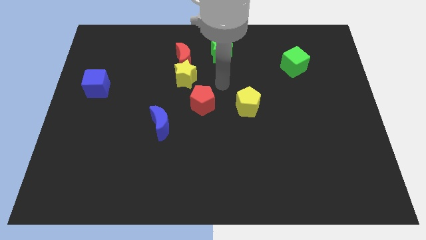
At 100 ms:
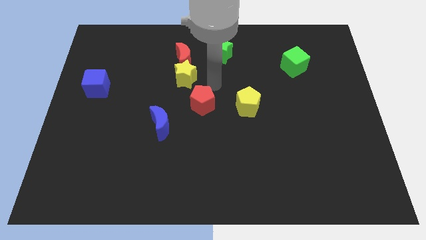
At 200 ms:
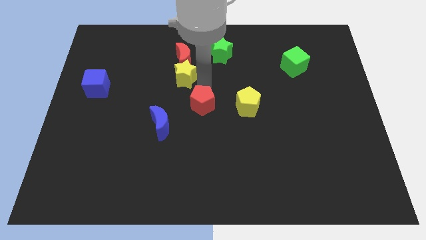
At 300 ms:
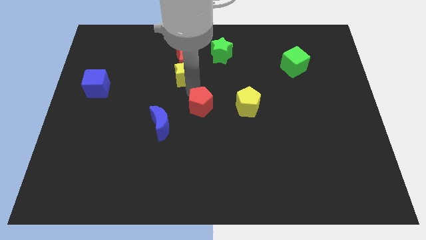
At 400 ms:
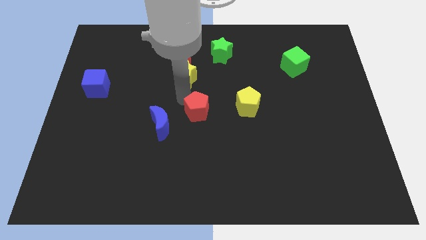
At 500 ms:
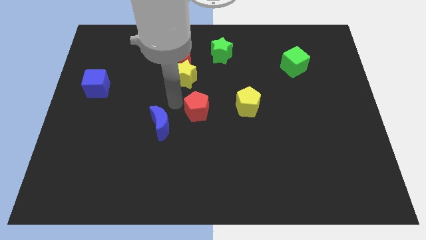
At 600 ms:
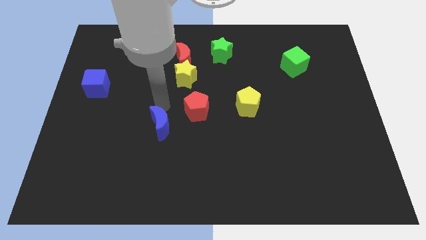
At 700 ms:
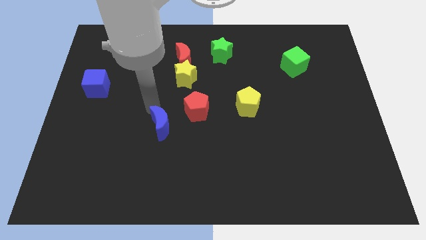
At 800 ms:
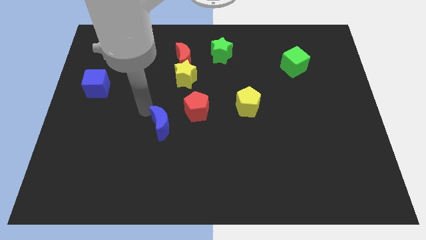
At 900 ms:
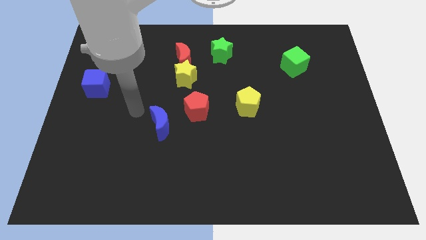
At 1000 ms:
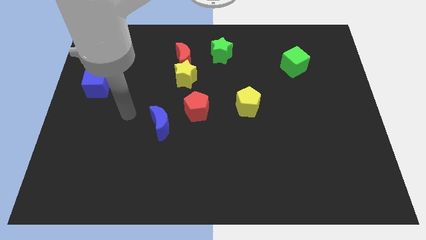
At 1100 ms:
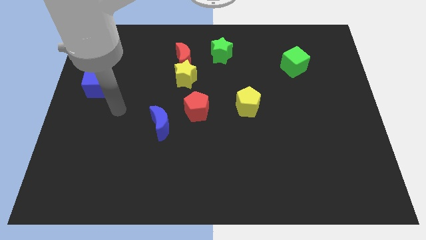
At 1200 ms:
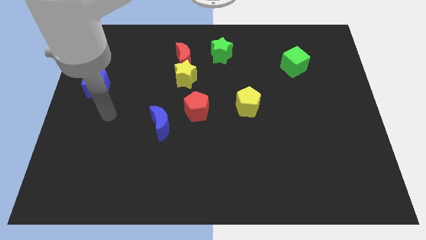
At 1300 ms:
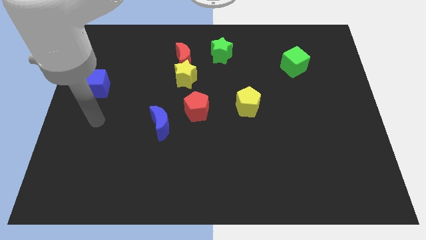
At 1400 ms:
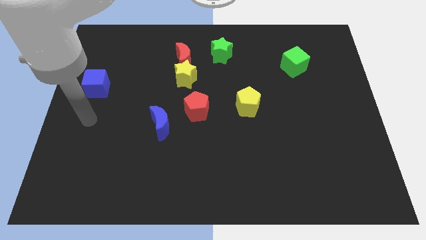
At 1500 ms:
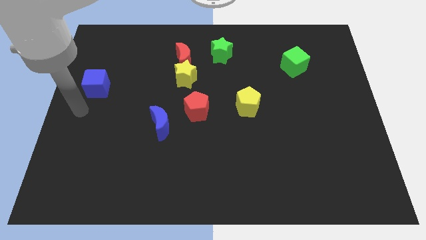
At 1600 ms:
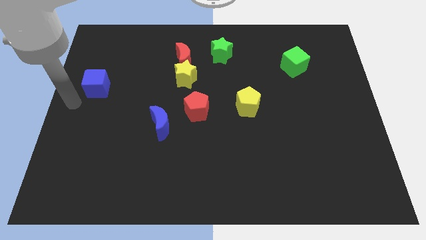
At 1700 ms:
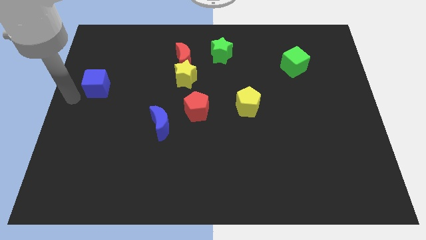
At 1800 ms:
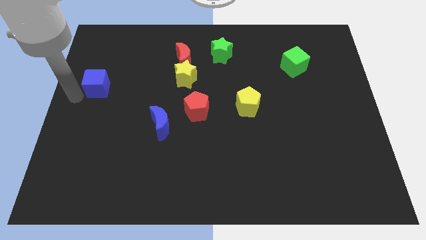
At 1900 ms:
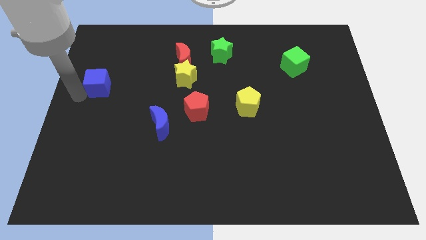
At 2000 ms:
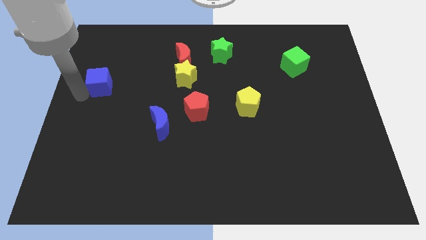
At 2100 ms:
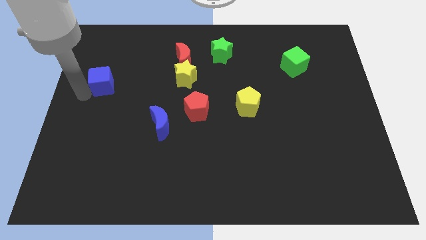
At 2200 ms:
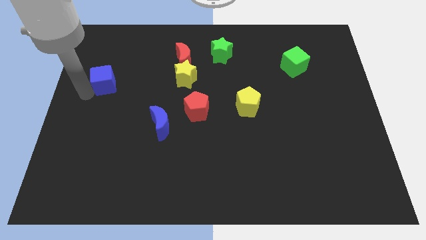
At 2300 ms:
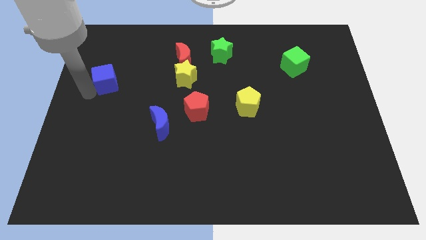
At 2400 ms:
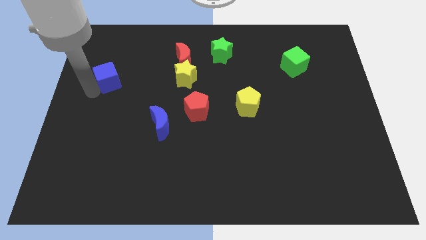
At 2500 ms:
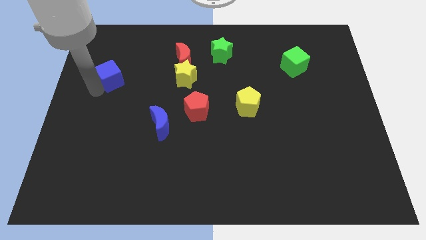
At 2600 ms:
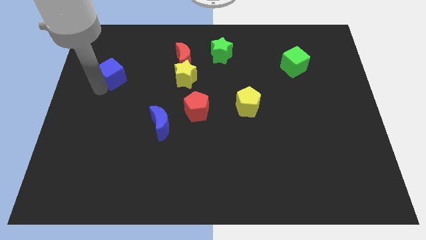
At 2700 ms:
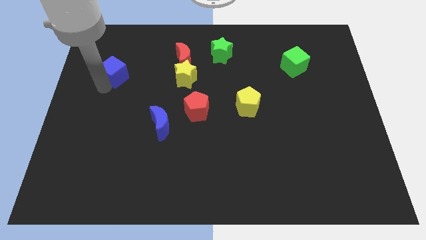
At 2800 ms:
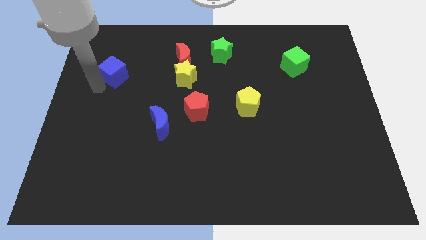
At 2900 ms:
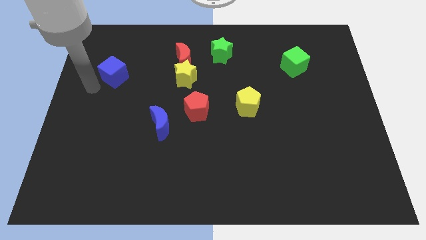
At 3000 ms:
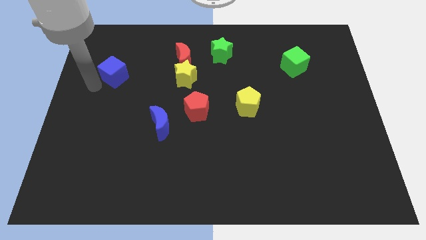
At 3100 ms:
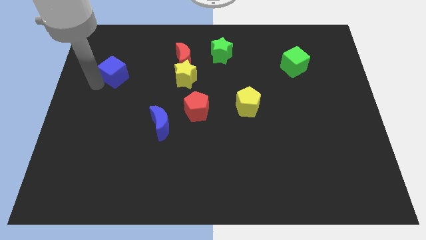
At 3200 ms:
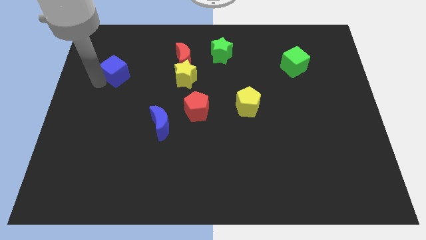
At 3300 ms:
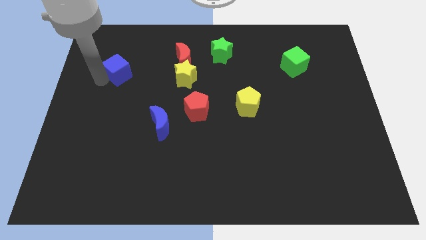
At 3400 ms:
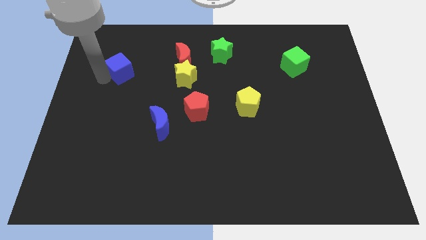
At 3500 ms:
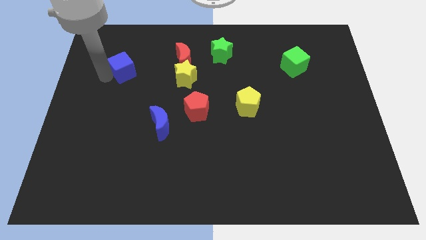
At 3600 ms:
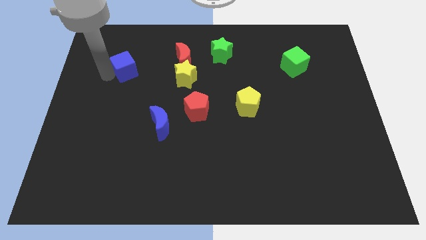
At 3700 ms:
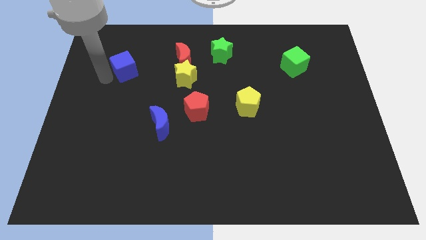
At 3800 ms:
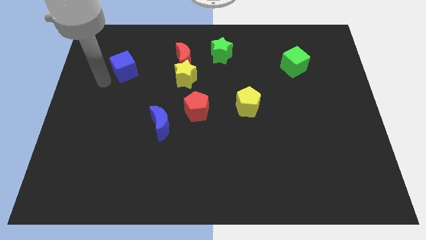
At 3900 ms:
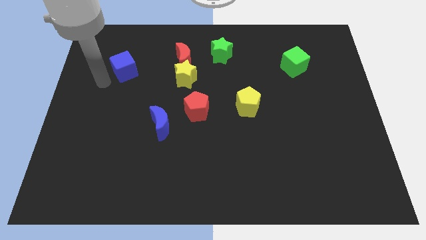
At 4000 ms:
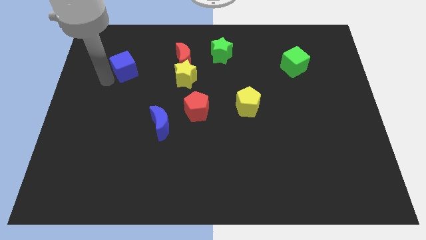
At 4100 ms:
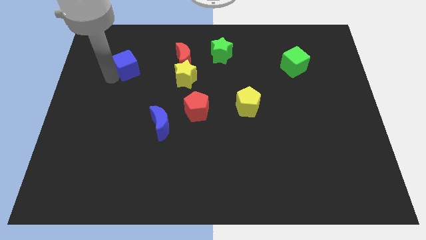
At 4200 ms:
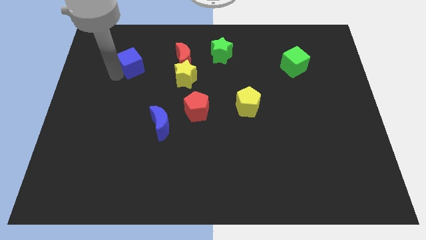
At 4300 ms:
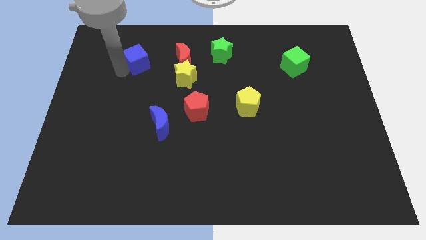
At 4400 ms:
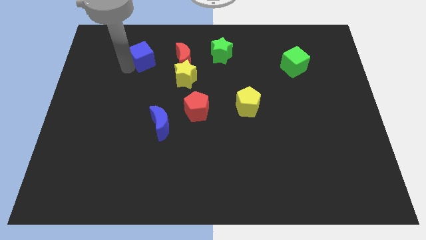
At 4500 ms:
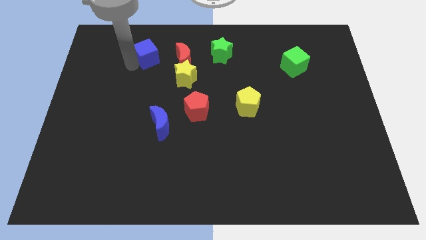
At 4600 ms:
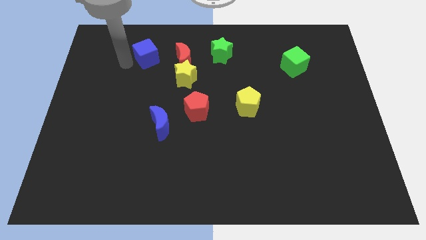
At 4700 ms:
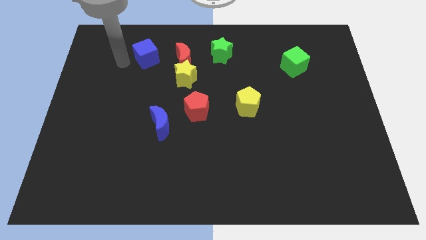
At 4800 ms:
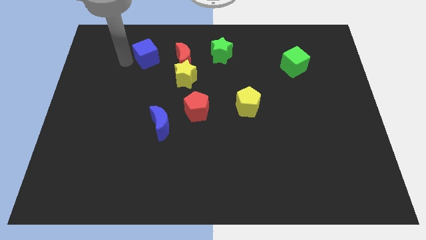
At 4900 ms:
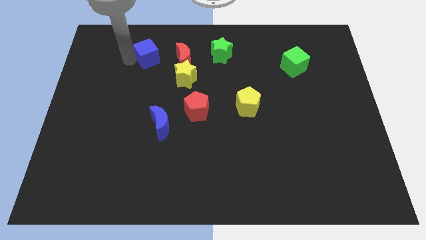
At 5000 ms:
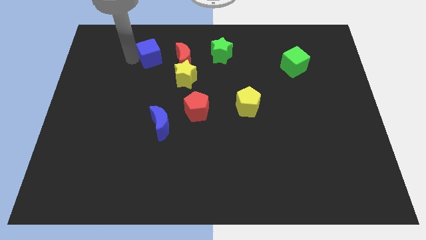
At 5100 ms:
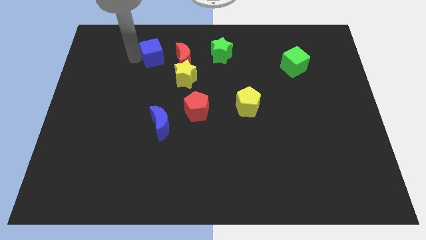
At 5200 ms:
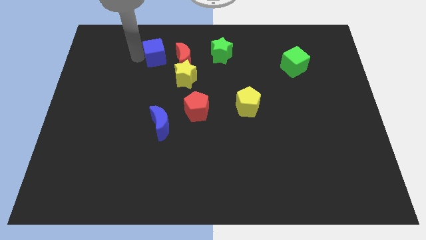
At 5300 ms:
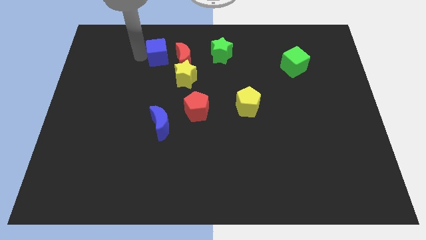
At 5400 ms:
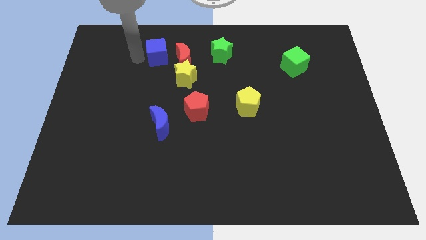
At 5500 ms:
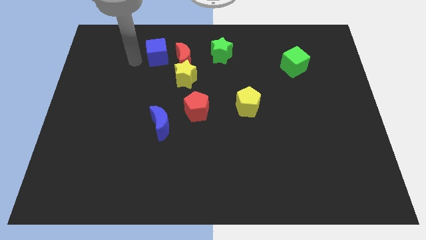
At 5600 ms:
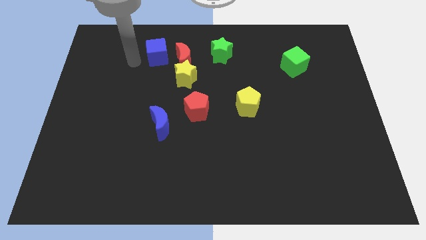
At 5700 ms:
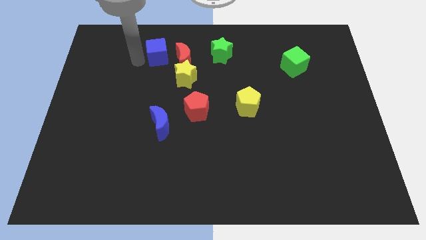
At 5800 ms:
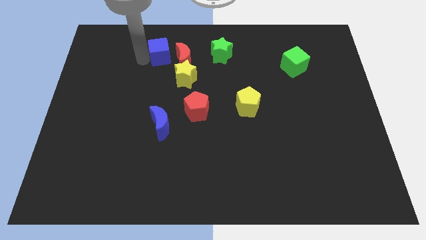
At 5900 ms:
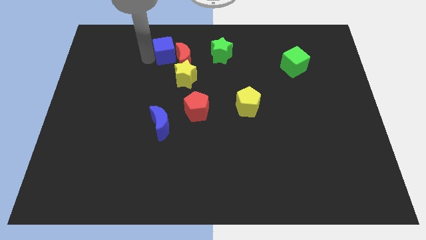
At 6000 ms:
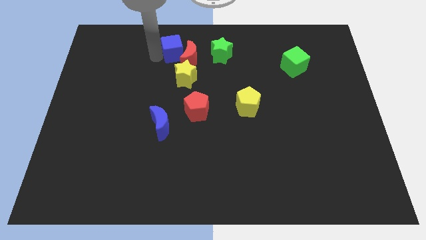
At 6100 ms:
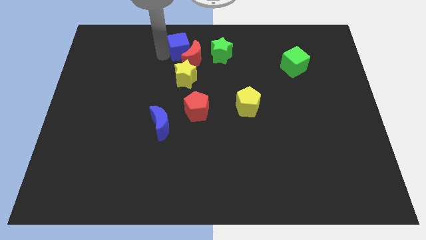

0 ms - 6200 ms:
push the blue cube to the towards your base

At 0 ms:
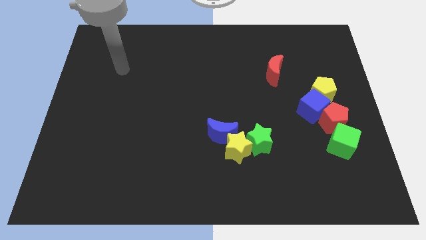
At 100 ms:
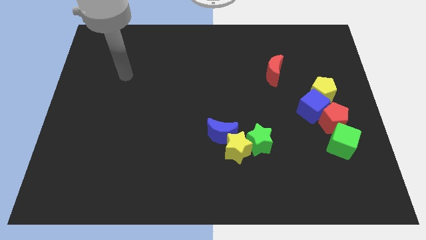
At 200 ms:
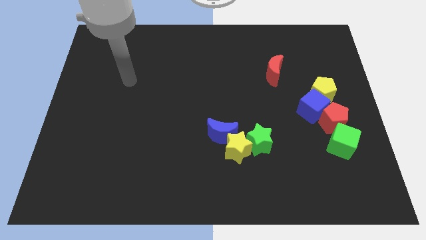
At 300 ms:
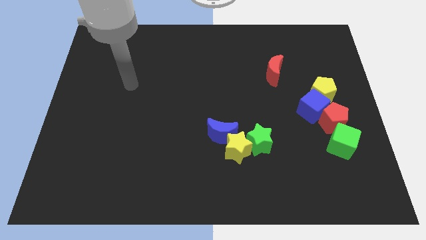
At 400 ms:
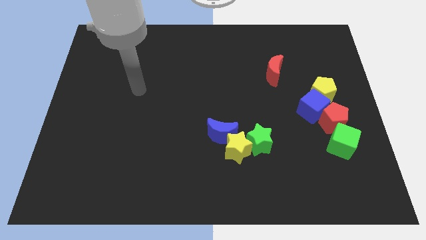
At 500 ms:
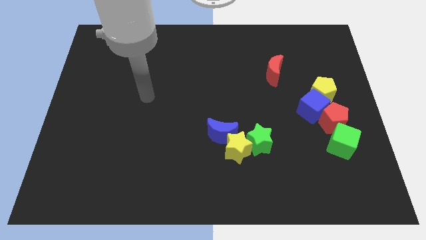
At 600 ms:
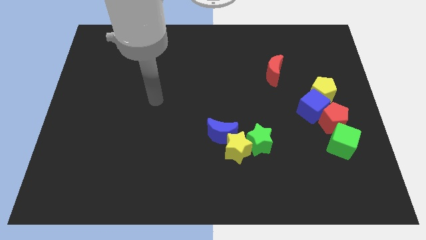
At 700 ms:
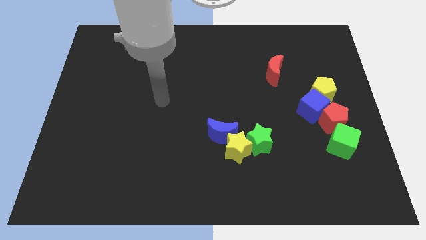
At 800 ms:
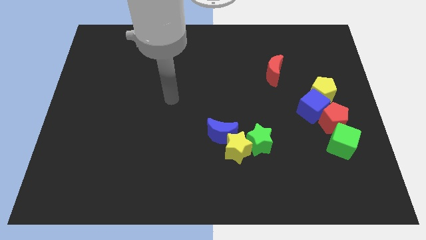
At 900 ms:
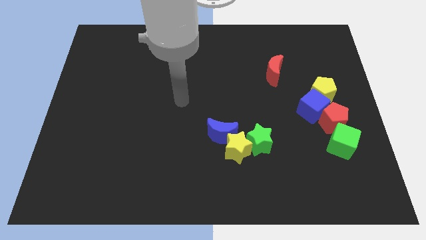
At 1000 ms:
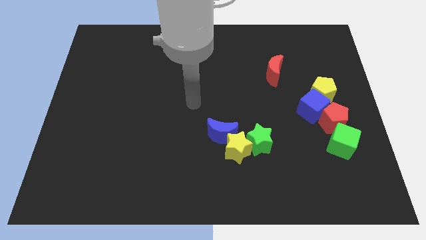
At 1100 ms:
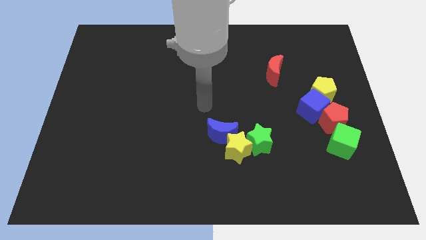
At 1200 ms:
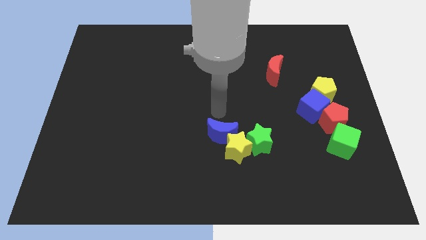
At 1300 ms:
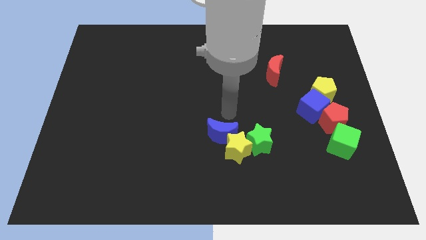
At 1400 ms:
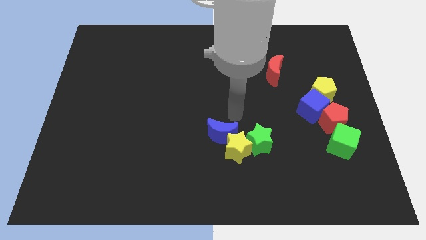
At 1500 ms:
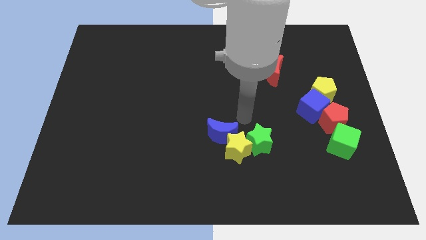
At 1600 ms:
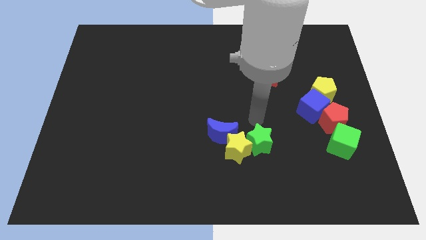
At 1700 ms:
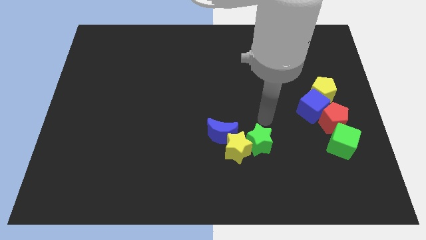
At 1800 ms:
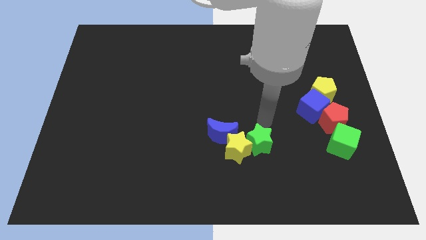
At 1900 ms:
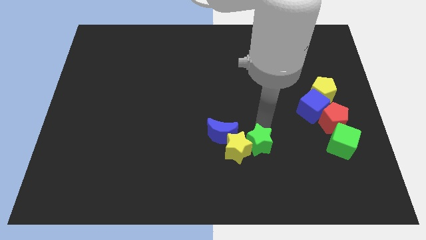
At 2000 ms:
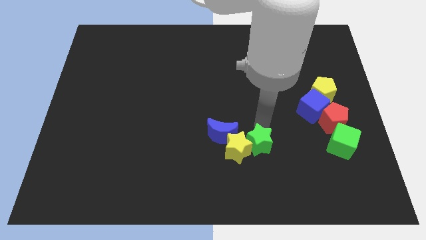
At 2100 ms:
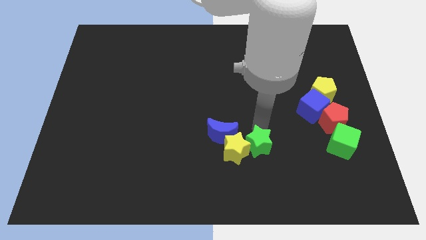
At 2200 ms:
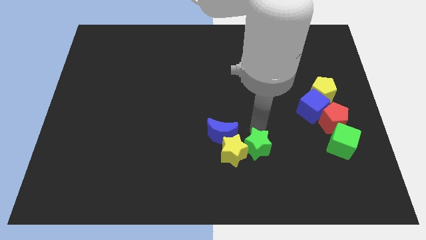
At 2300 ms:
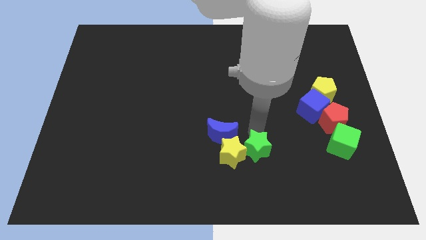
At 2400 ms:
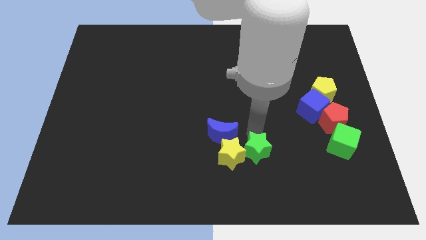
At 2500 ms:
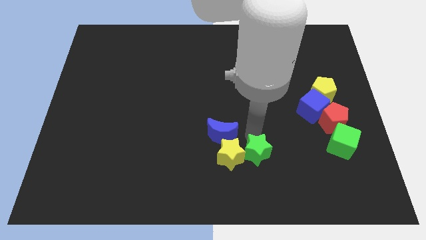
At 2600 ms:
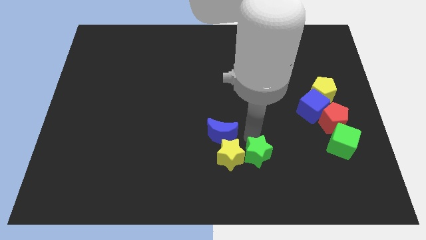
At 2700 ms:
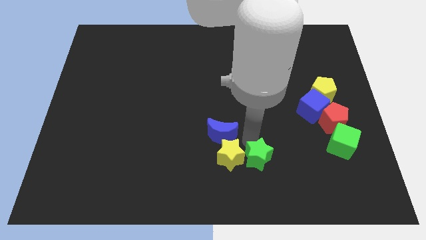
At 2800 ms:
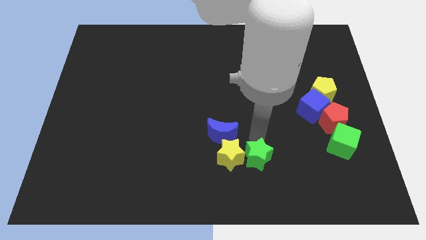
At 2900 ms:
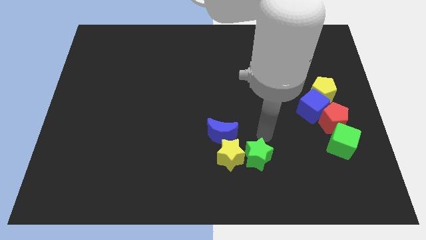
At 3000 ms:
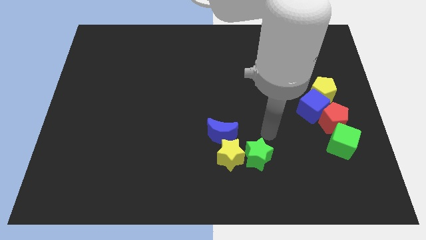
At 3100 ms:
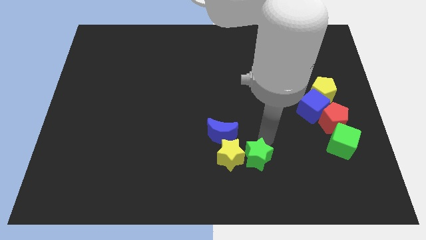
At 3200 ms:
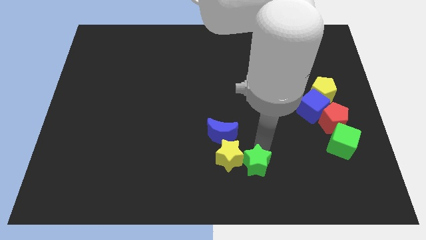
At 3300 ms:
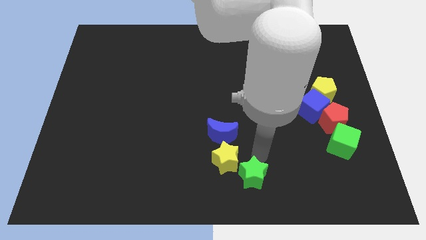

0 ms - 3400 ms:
push the green star to the bottom
